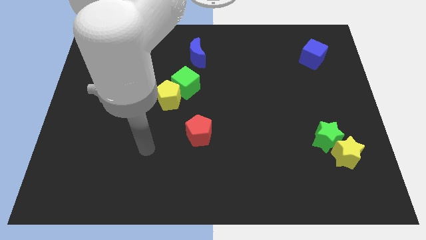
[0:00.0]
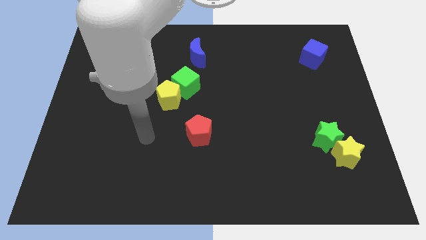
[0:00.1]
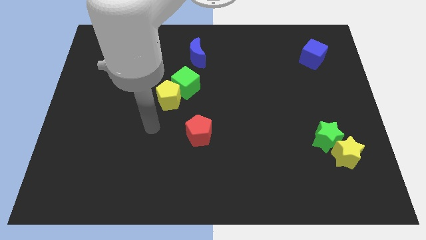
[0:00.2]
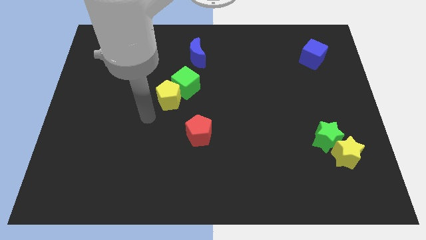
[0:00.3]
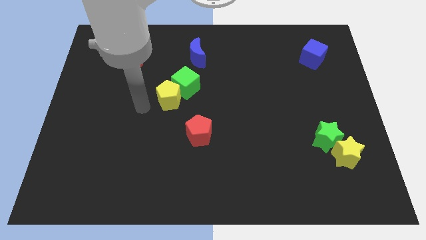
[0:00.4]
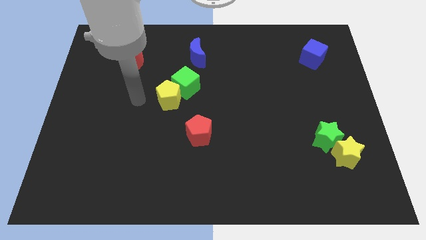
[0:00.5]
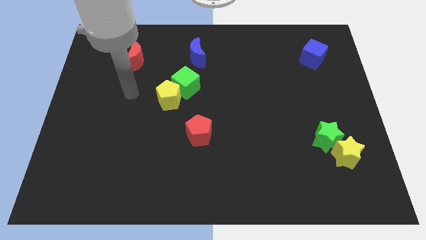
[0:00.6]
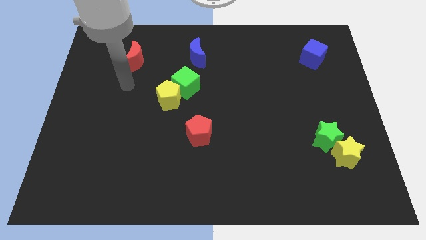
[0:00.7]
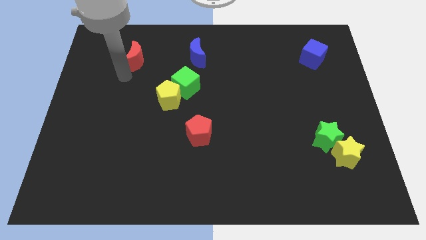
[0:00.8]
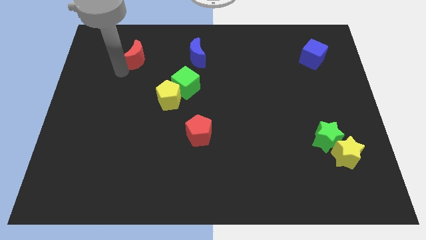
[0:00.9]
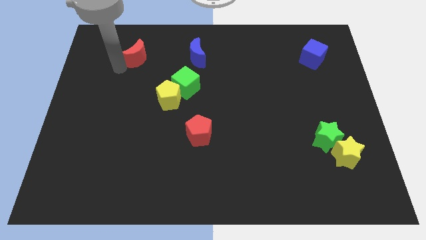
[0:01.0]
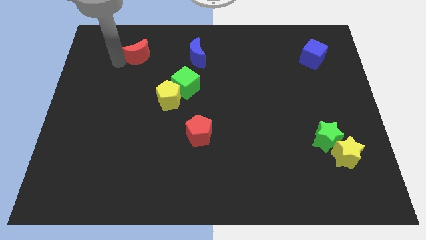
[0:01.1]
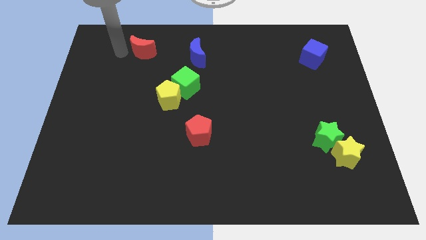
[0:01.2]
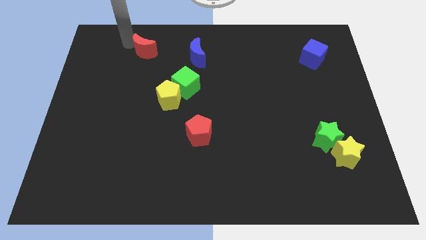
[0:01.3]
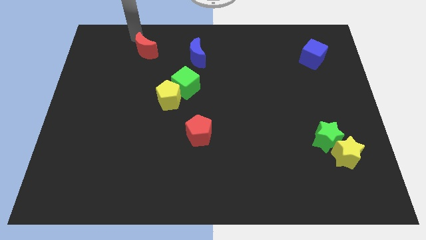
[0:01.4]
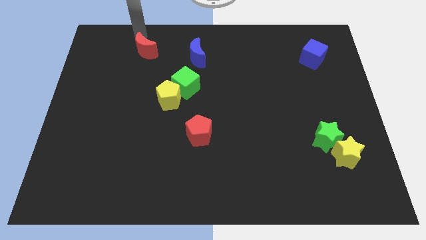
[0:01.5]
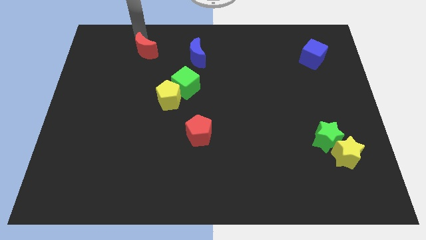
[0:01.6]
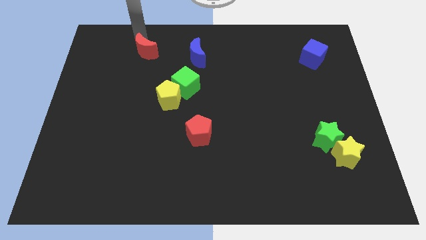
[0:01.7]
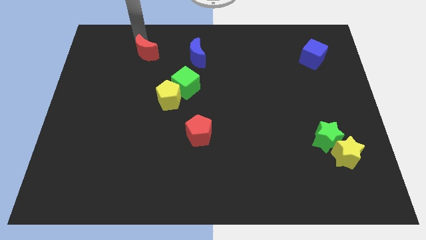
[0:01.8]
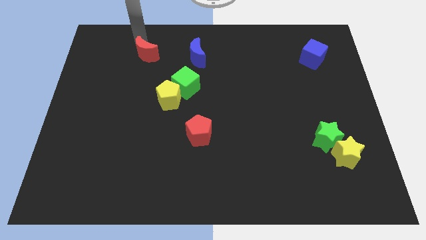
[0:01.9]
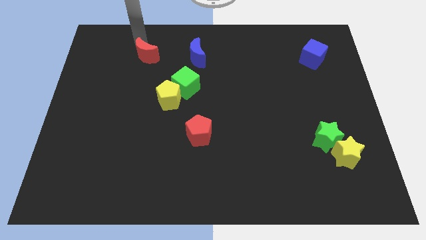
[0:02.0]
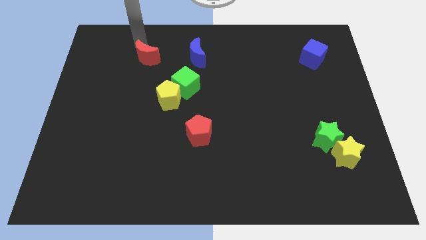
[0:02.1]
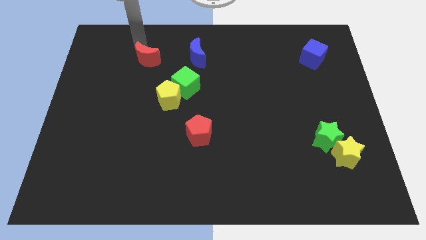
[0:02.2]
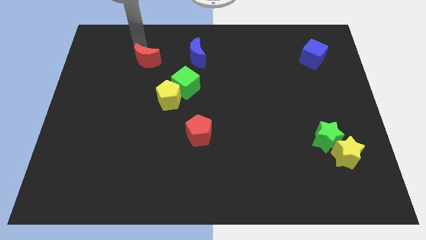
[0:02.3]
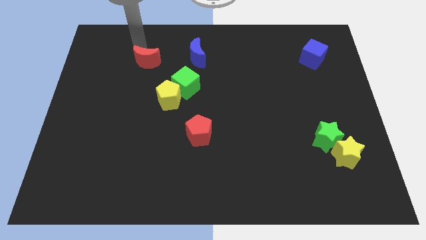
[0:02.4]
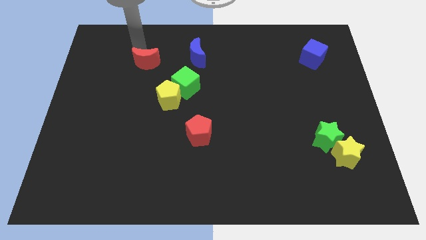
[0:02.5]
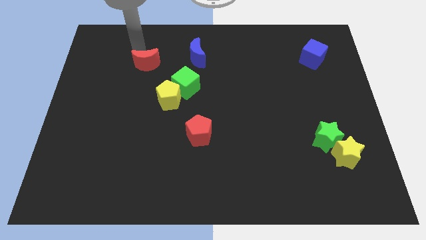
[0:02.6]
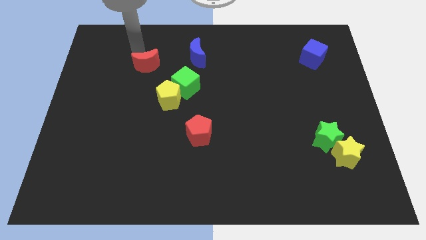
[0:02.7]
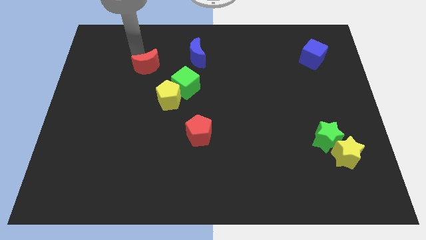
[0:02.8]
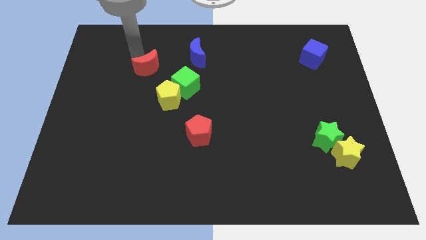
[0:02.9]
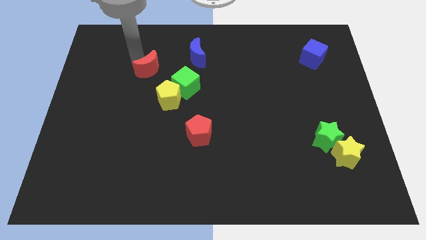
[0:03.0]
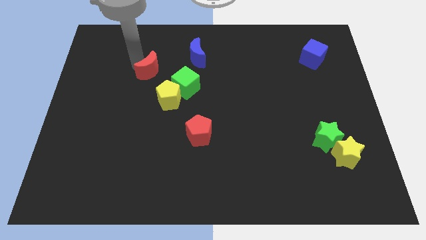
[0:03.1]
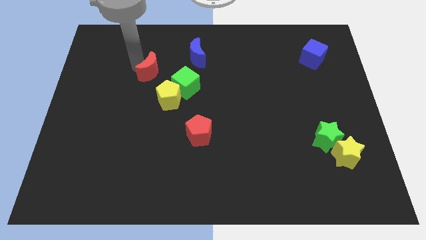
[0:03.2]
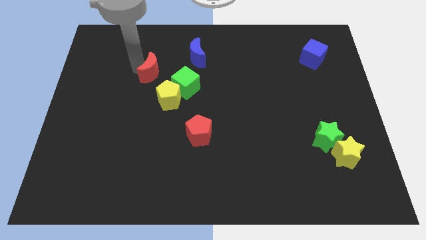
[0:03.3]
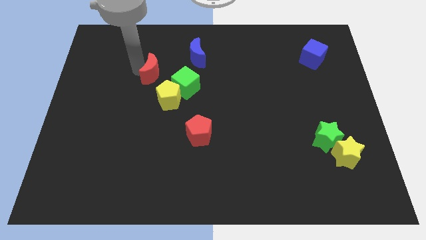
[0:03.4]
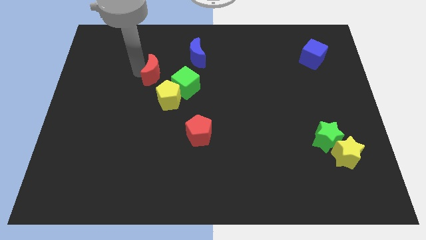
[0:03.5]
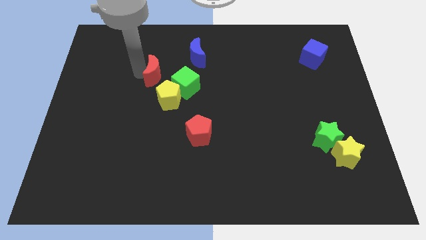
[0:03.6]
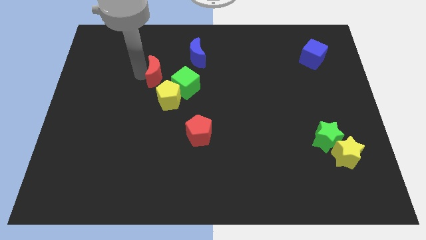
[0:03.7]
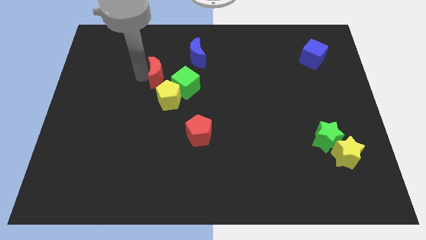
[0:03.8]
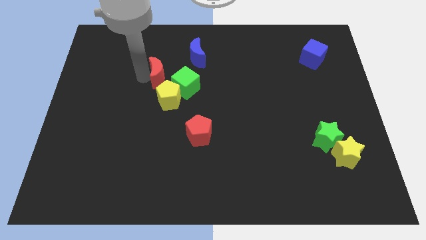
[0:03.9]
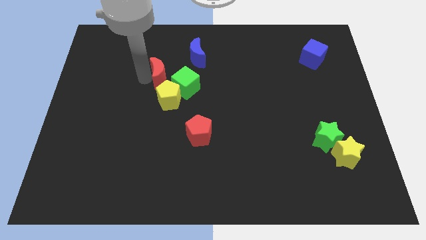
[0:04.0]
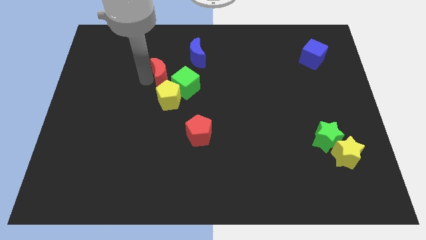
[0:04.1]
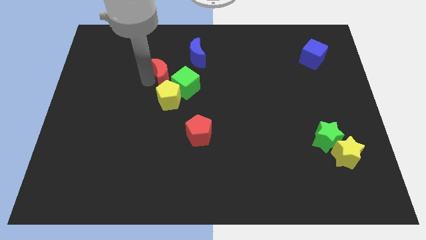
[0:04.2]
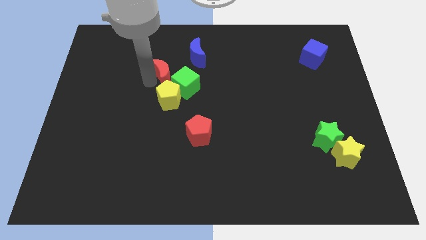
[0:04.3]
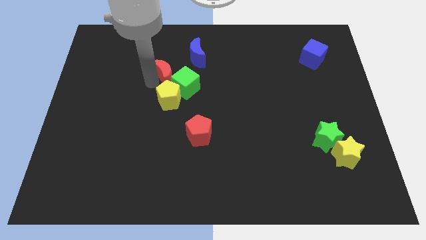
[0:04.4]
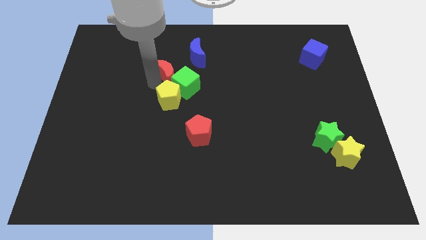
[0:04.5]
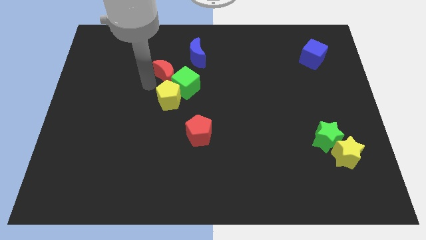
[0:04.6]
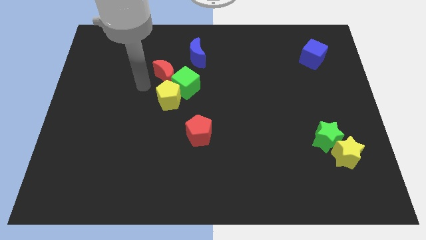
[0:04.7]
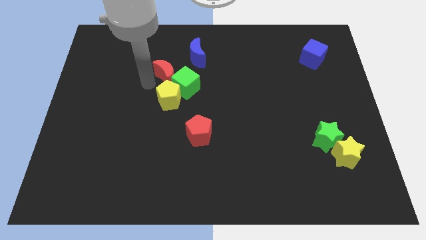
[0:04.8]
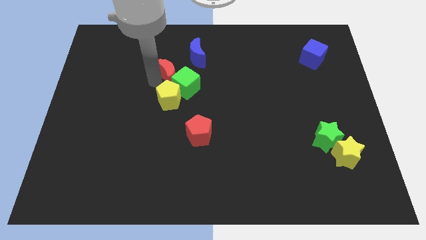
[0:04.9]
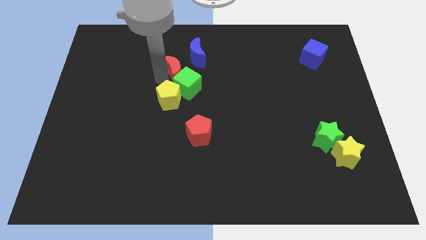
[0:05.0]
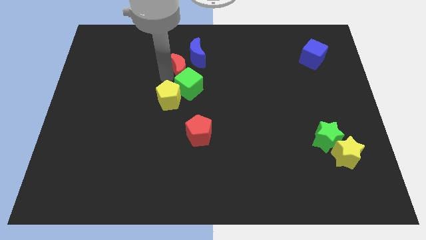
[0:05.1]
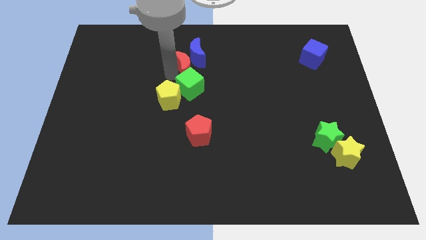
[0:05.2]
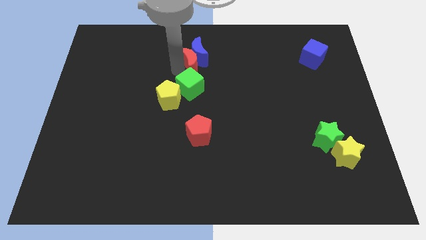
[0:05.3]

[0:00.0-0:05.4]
move the red moon to the bottom right of the blue moon

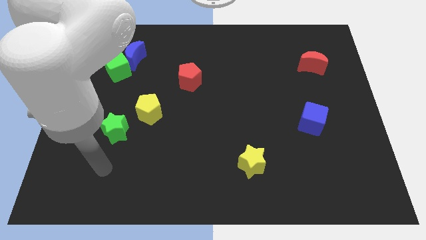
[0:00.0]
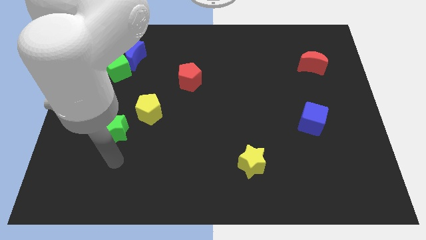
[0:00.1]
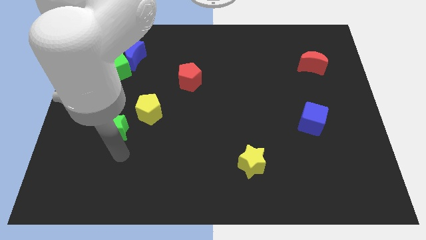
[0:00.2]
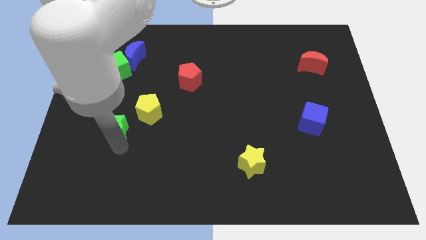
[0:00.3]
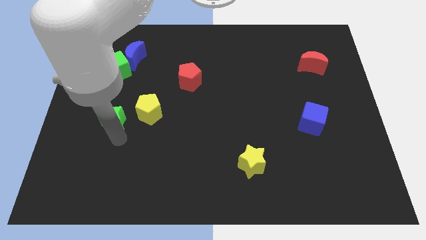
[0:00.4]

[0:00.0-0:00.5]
put the green star to the bottom of the green cube

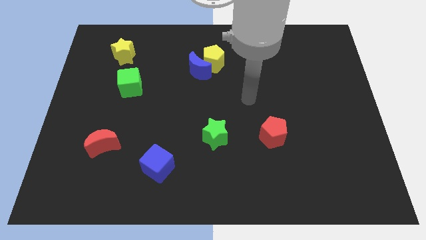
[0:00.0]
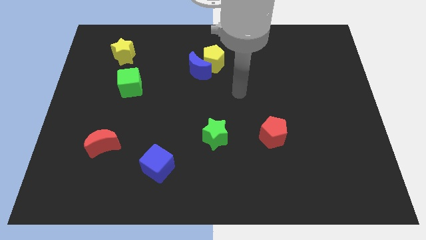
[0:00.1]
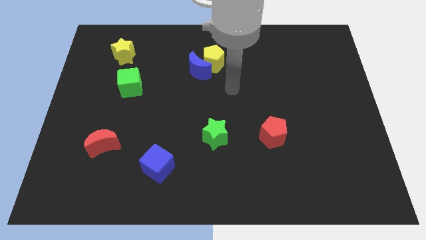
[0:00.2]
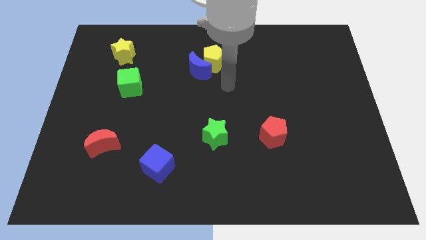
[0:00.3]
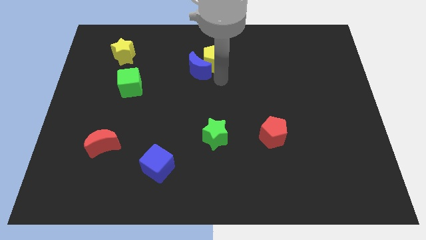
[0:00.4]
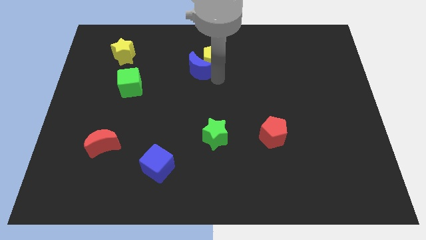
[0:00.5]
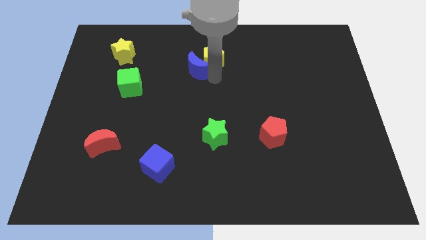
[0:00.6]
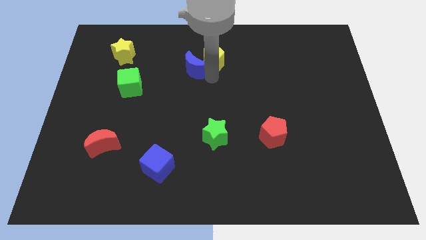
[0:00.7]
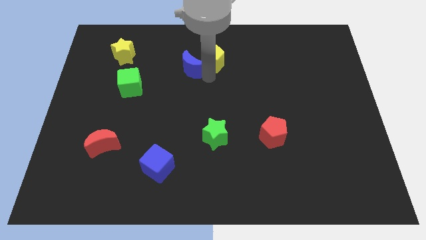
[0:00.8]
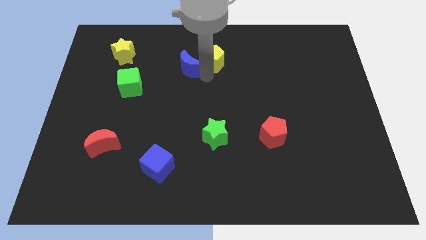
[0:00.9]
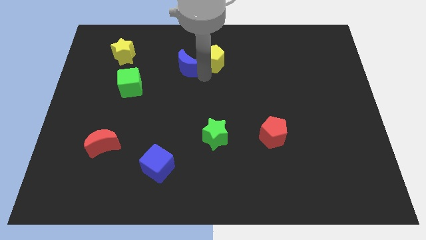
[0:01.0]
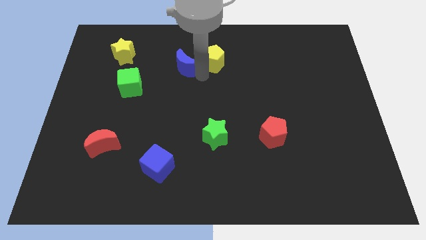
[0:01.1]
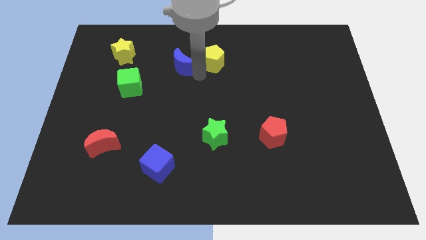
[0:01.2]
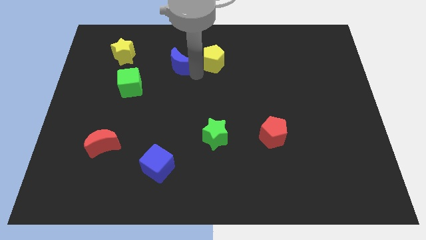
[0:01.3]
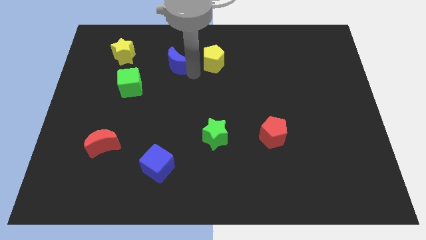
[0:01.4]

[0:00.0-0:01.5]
slide the blue moon right of the yellow star
